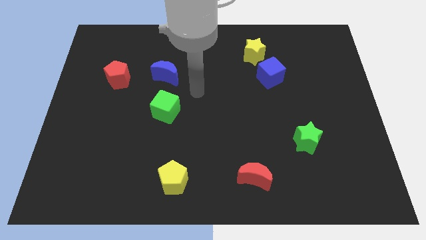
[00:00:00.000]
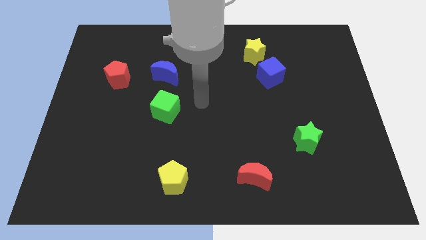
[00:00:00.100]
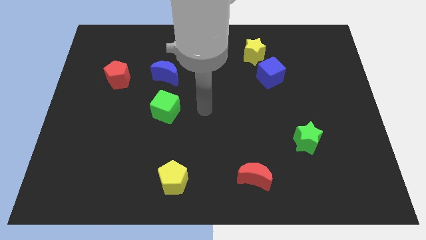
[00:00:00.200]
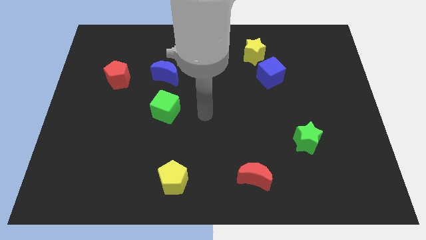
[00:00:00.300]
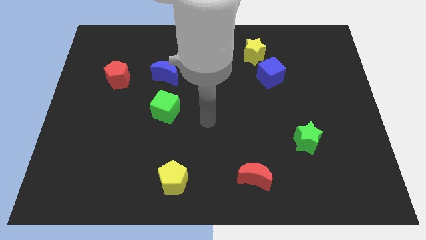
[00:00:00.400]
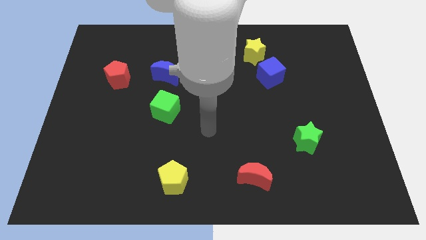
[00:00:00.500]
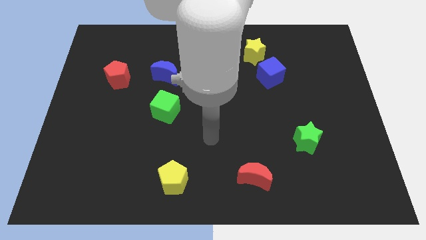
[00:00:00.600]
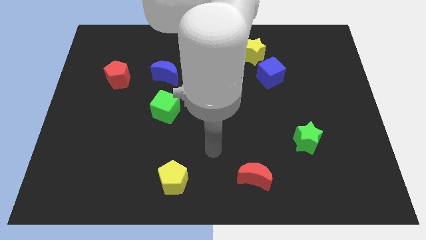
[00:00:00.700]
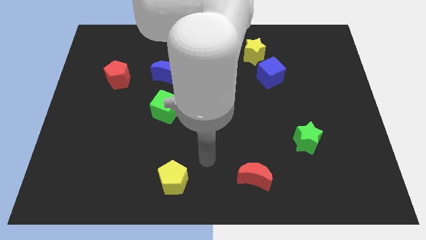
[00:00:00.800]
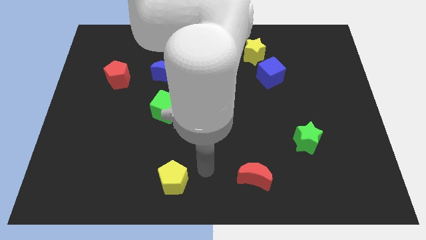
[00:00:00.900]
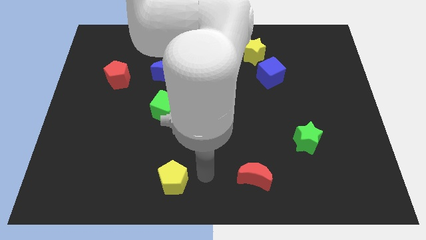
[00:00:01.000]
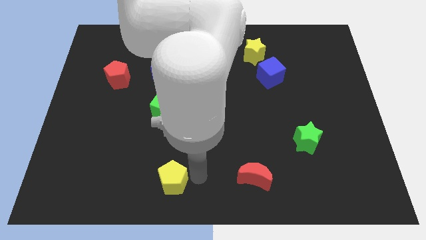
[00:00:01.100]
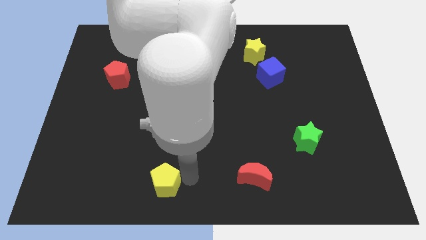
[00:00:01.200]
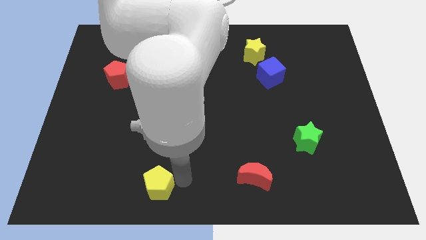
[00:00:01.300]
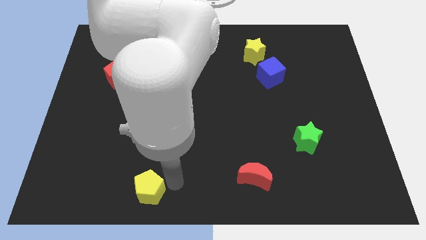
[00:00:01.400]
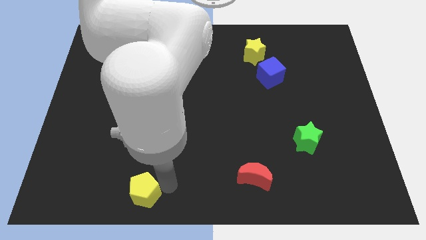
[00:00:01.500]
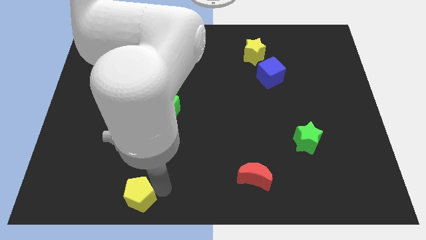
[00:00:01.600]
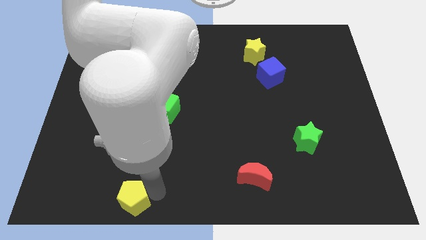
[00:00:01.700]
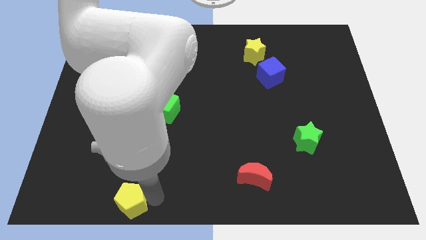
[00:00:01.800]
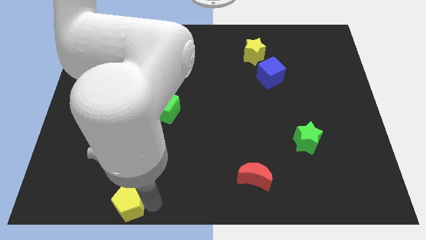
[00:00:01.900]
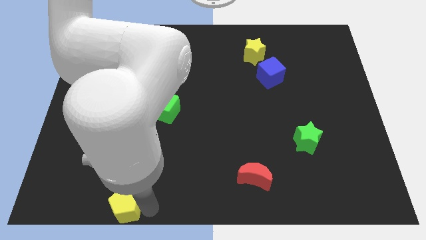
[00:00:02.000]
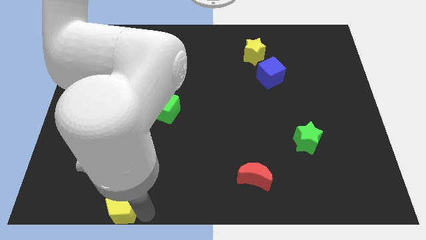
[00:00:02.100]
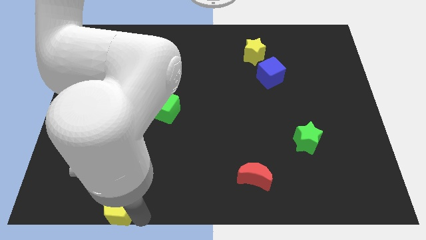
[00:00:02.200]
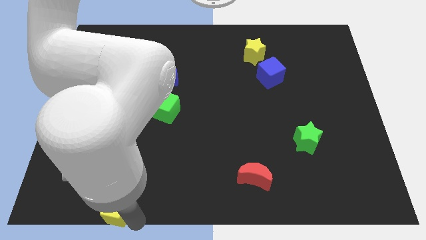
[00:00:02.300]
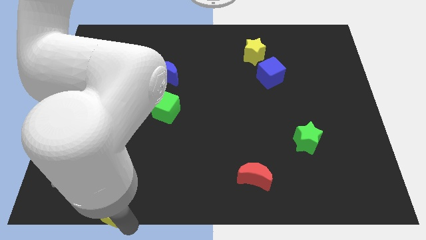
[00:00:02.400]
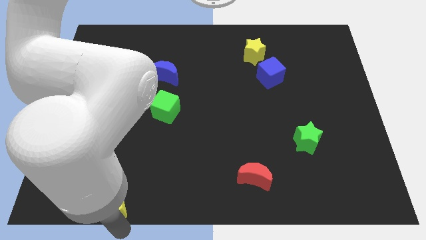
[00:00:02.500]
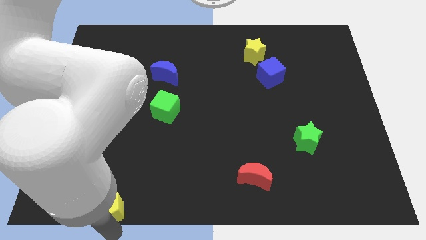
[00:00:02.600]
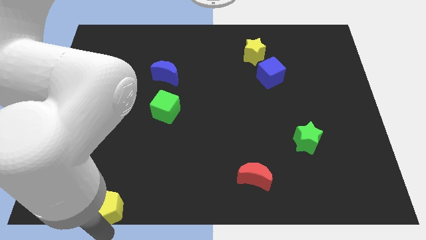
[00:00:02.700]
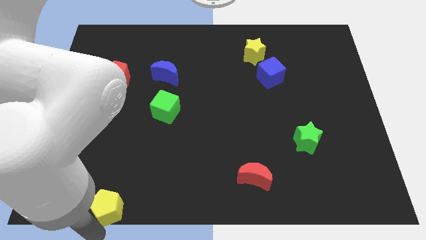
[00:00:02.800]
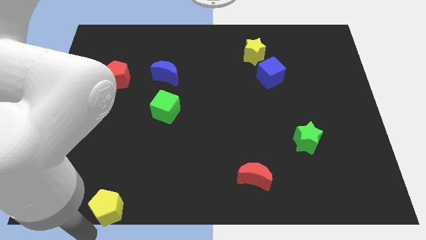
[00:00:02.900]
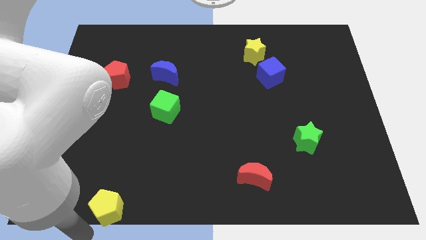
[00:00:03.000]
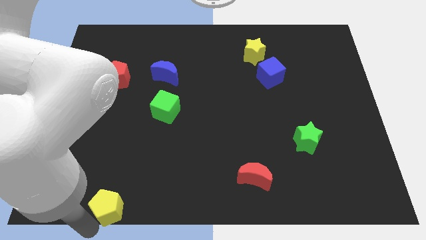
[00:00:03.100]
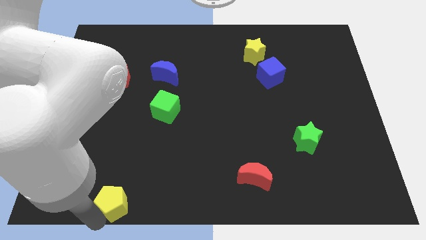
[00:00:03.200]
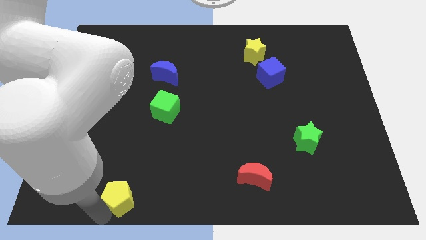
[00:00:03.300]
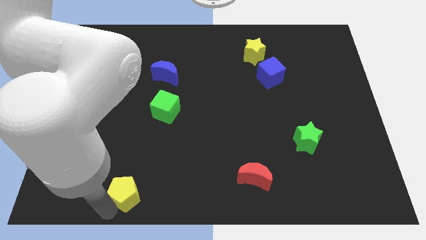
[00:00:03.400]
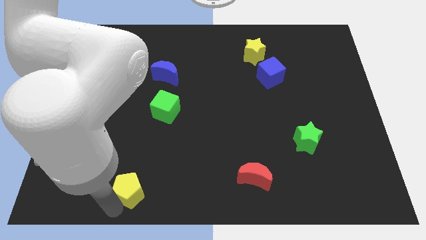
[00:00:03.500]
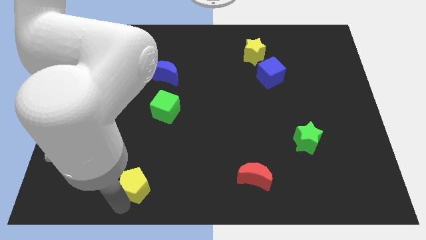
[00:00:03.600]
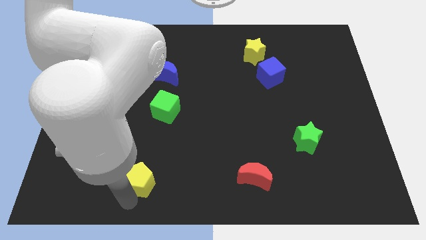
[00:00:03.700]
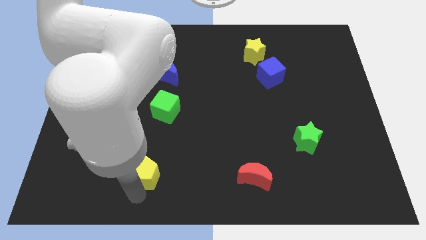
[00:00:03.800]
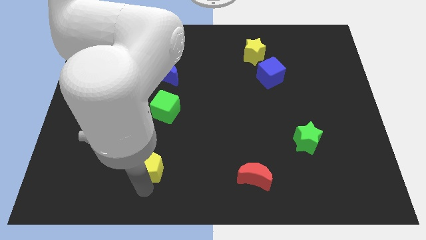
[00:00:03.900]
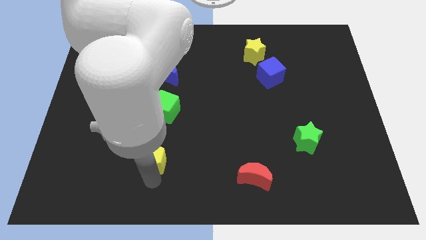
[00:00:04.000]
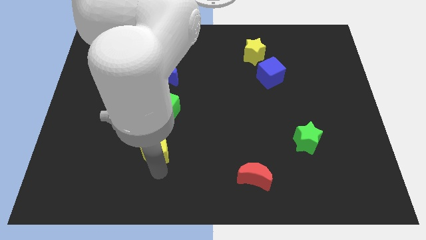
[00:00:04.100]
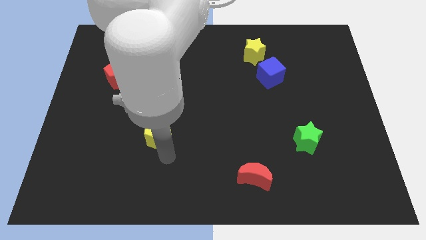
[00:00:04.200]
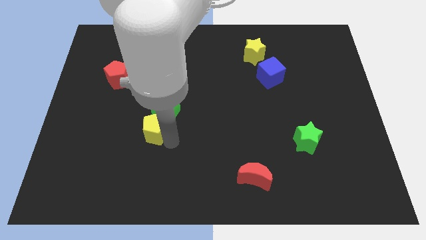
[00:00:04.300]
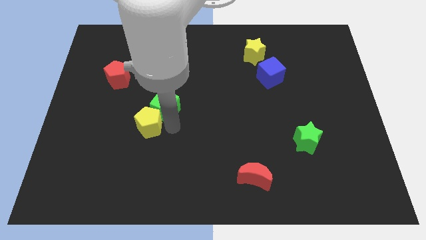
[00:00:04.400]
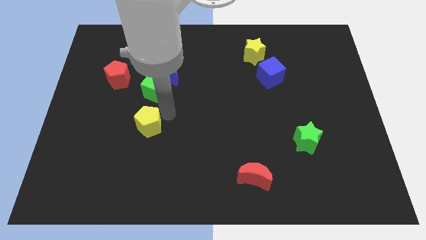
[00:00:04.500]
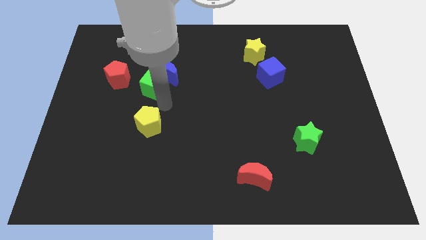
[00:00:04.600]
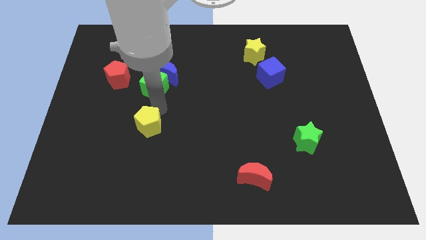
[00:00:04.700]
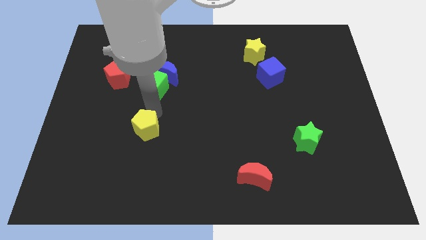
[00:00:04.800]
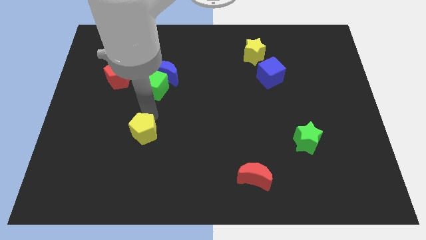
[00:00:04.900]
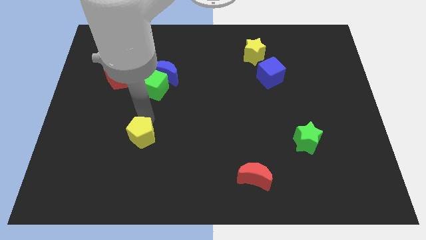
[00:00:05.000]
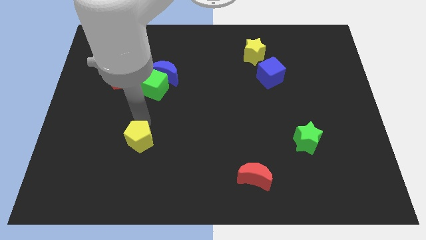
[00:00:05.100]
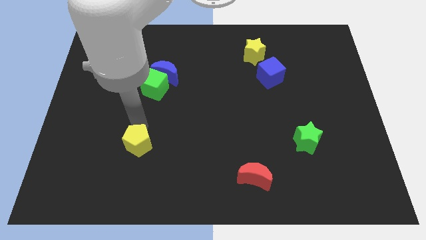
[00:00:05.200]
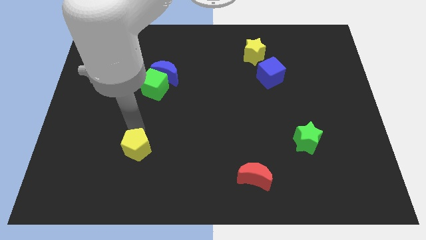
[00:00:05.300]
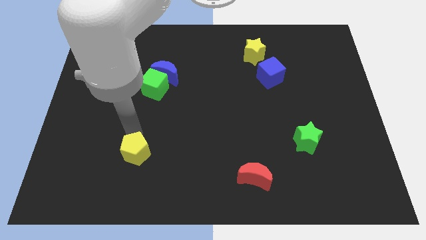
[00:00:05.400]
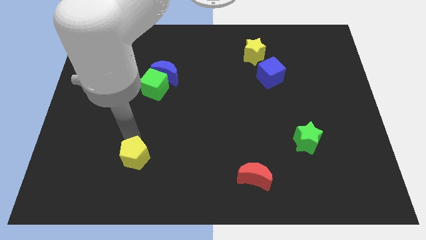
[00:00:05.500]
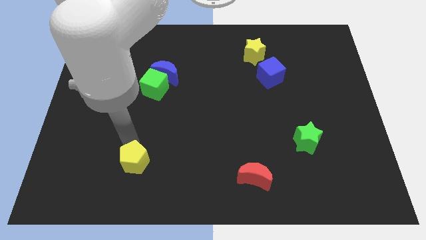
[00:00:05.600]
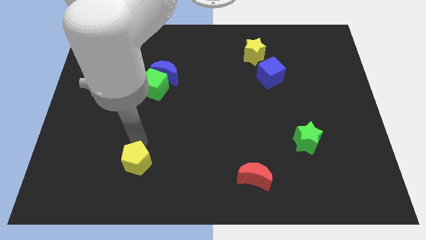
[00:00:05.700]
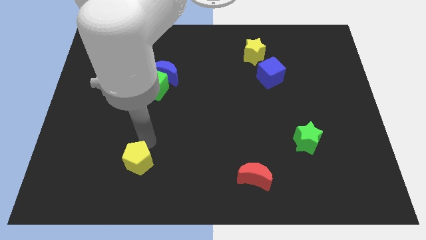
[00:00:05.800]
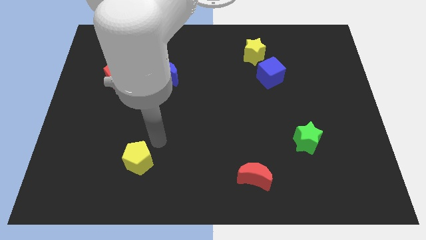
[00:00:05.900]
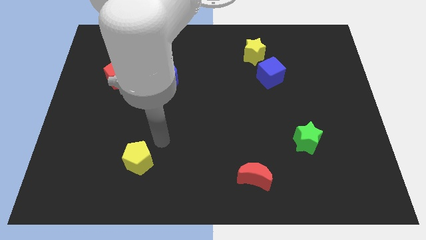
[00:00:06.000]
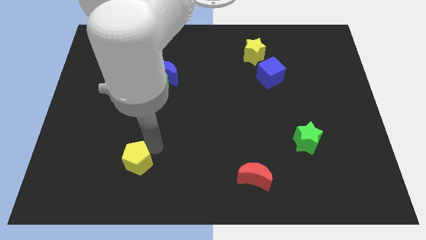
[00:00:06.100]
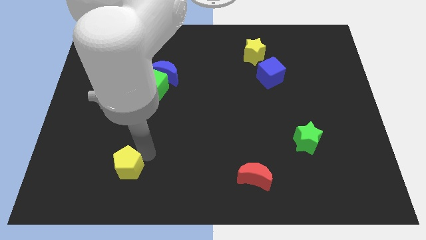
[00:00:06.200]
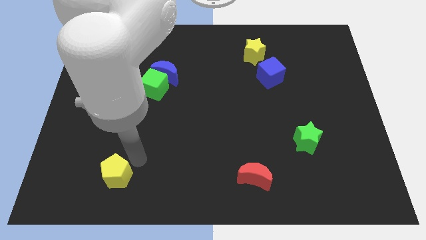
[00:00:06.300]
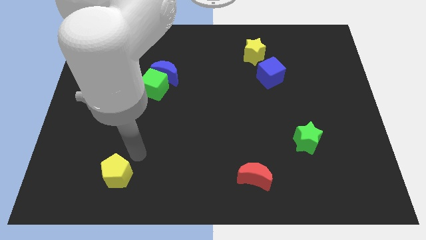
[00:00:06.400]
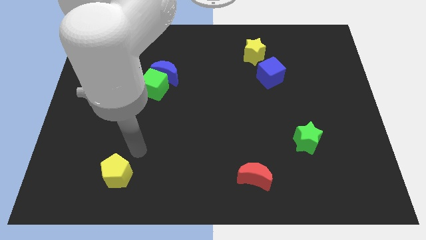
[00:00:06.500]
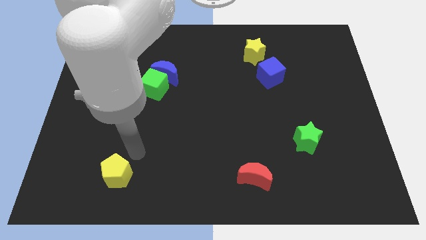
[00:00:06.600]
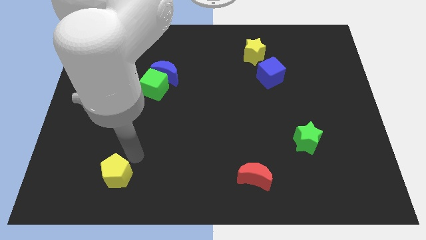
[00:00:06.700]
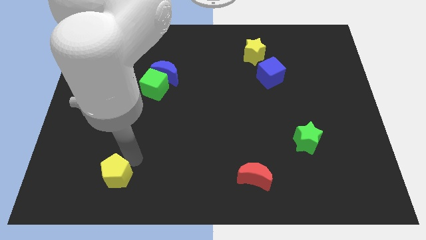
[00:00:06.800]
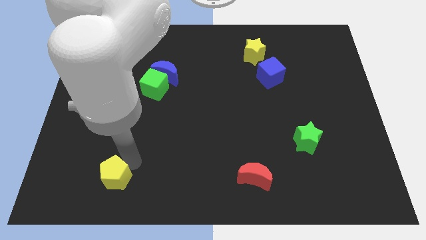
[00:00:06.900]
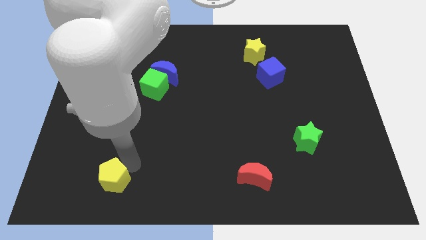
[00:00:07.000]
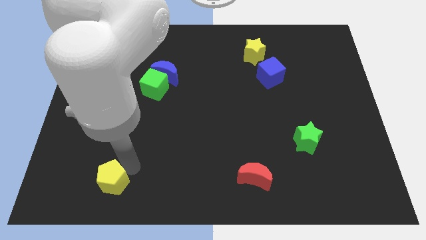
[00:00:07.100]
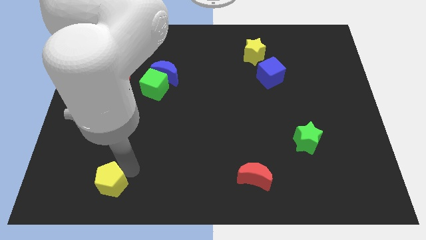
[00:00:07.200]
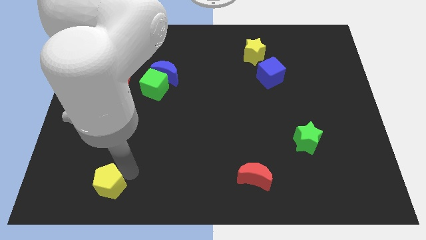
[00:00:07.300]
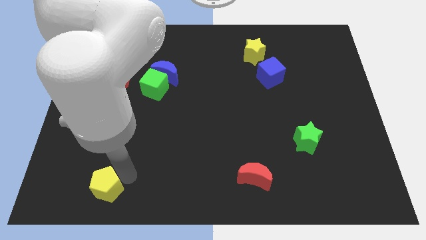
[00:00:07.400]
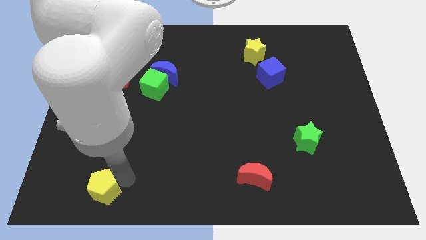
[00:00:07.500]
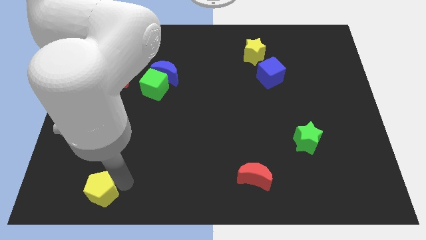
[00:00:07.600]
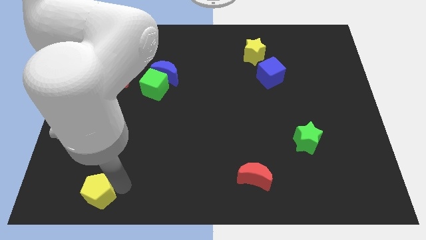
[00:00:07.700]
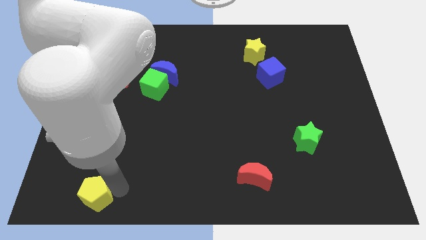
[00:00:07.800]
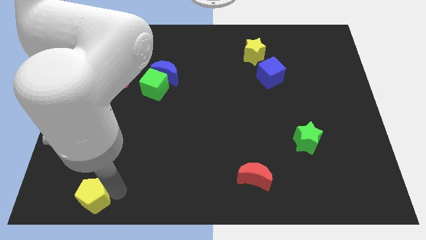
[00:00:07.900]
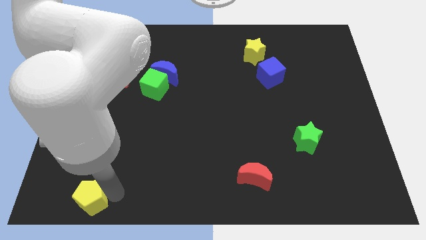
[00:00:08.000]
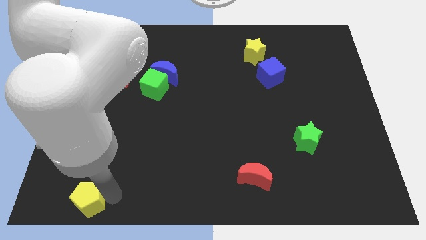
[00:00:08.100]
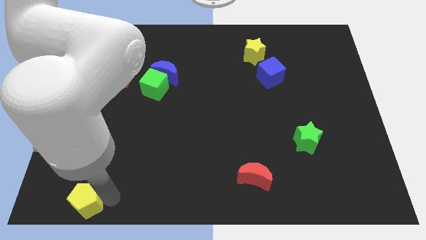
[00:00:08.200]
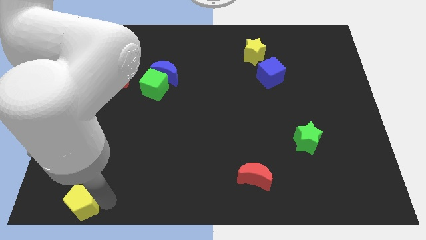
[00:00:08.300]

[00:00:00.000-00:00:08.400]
put the yellow pentagon to the bottom left
